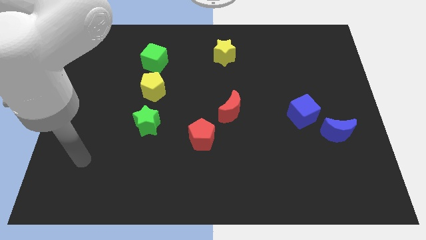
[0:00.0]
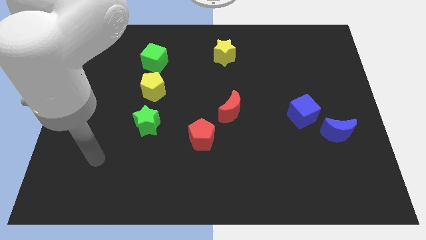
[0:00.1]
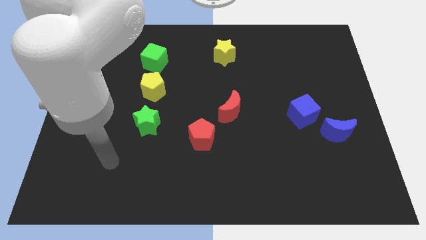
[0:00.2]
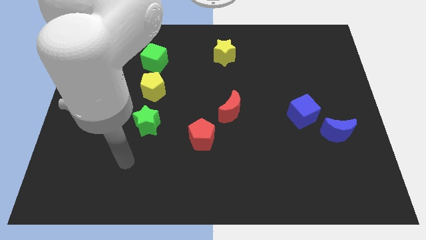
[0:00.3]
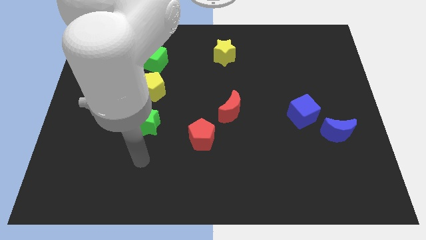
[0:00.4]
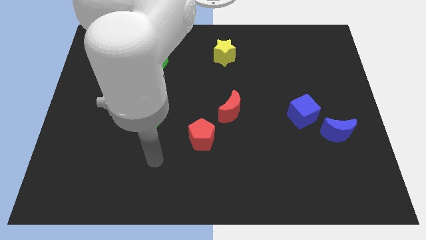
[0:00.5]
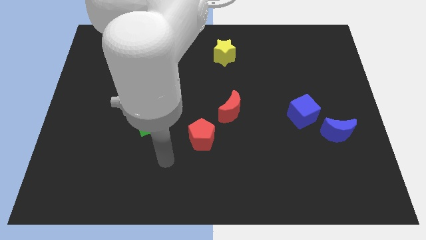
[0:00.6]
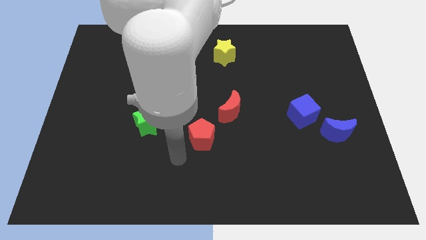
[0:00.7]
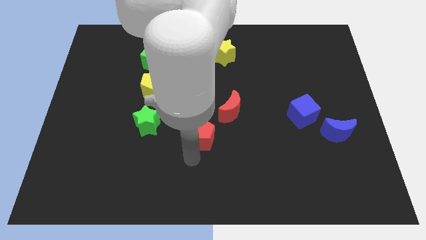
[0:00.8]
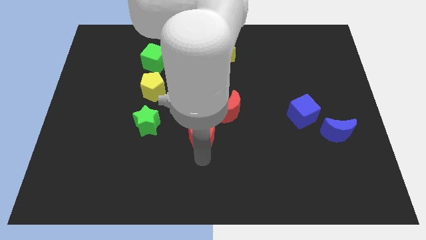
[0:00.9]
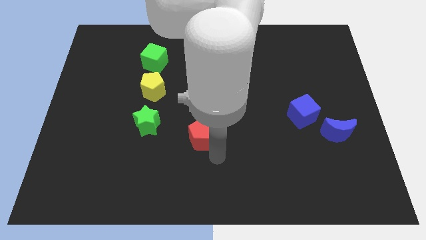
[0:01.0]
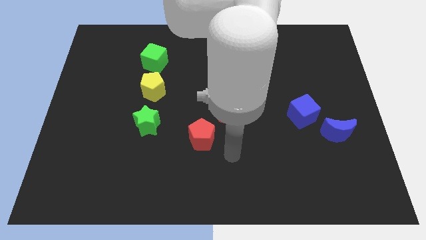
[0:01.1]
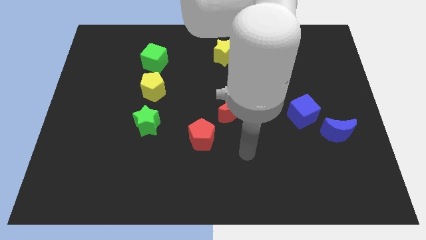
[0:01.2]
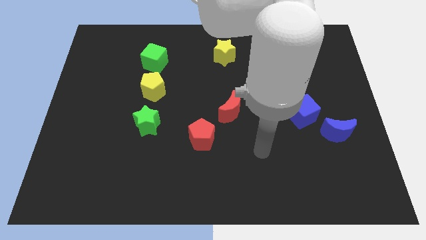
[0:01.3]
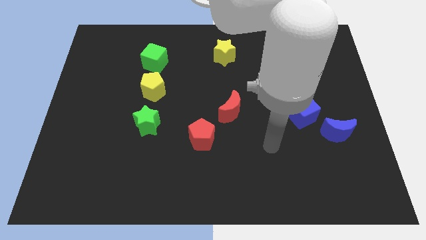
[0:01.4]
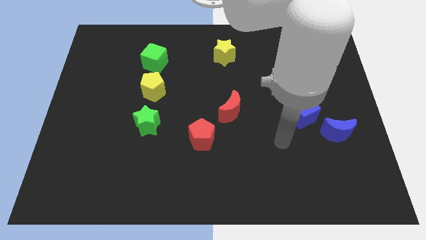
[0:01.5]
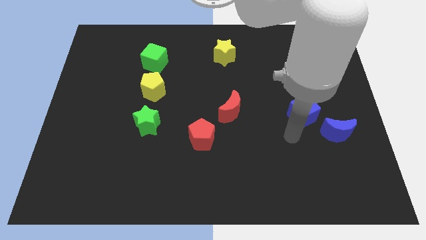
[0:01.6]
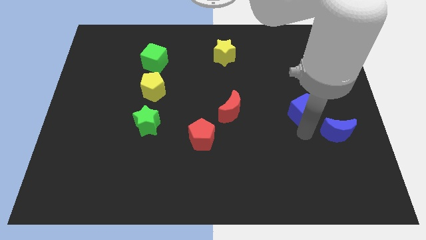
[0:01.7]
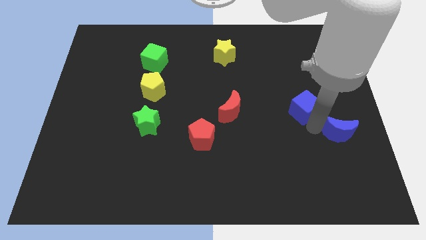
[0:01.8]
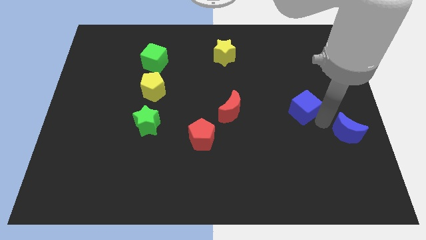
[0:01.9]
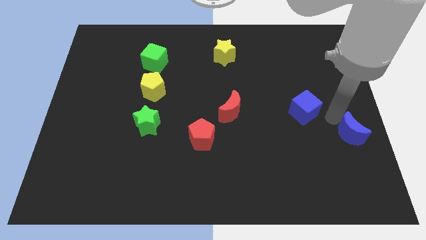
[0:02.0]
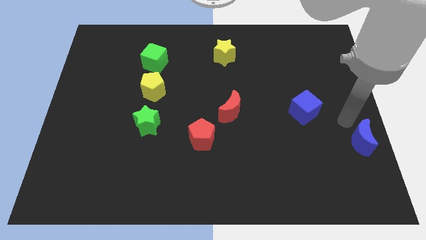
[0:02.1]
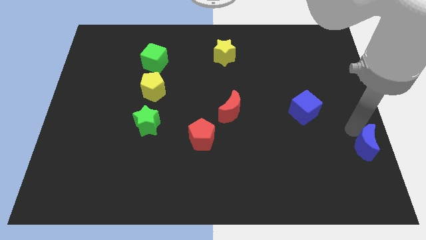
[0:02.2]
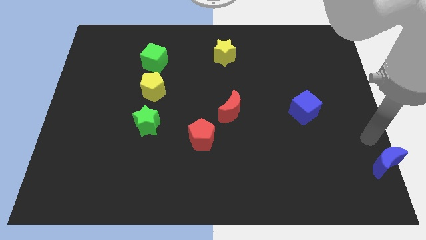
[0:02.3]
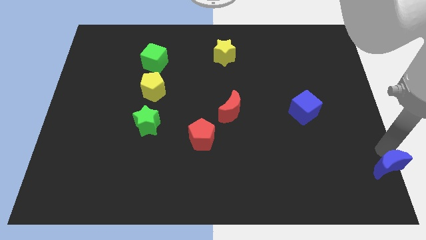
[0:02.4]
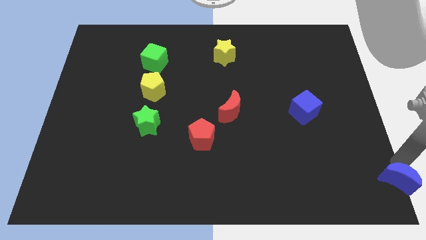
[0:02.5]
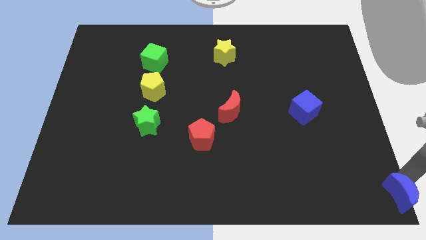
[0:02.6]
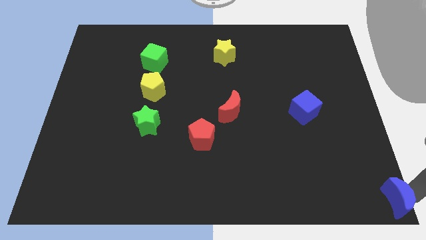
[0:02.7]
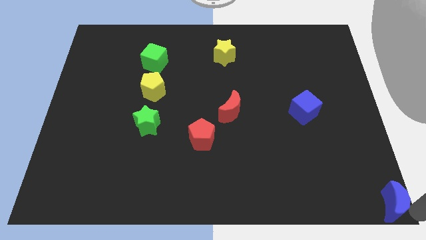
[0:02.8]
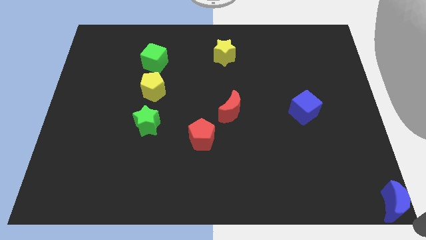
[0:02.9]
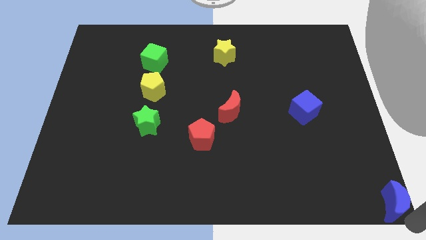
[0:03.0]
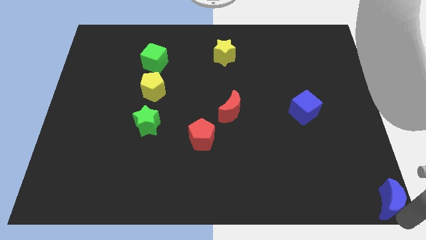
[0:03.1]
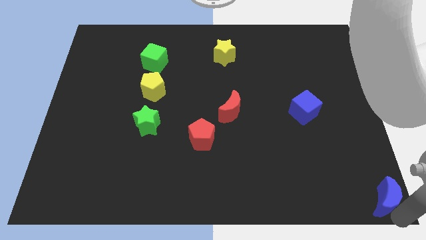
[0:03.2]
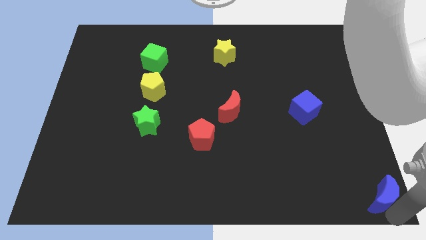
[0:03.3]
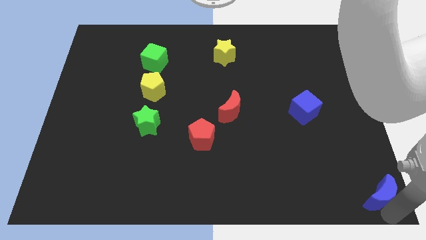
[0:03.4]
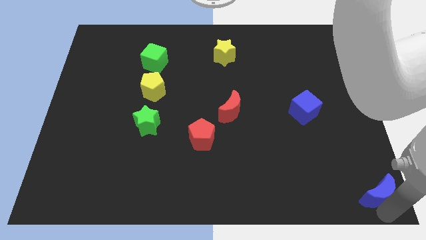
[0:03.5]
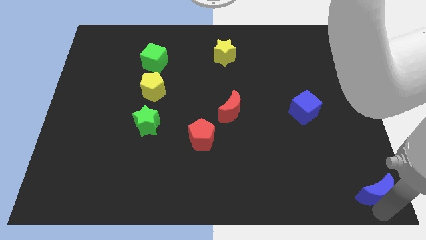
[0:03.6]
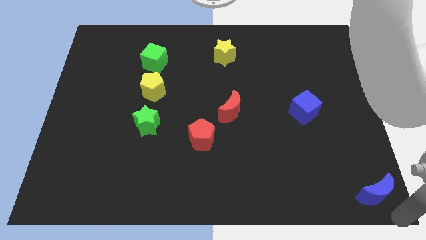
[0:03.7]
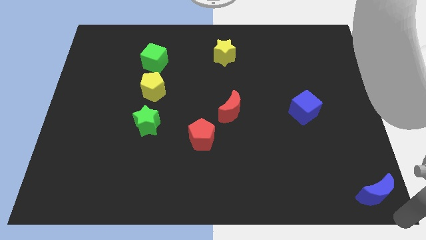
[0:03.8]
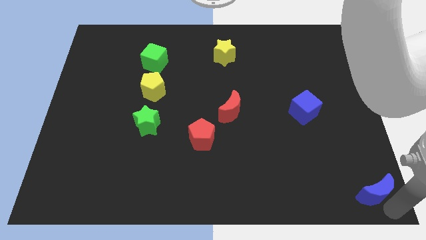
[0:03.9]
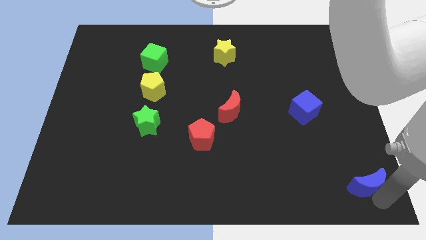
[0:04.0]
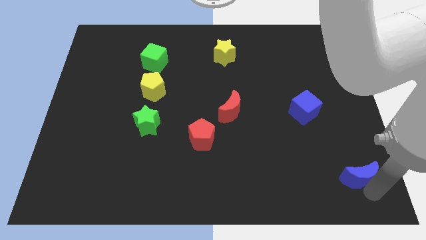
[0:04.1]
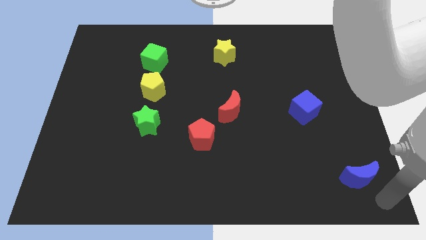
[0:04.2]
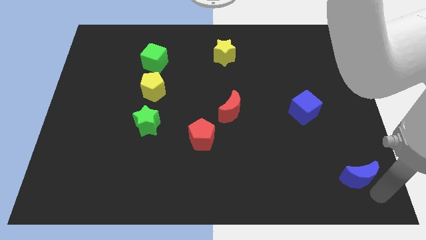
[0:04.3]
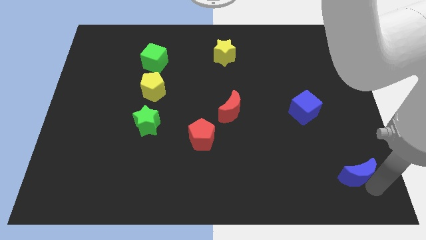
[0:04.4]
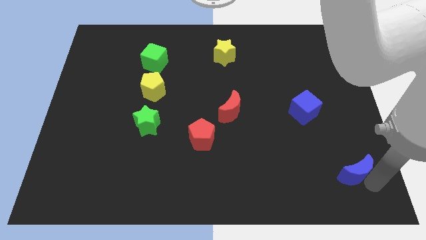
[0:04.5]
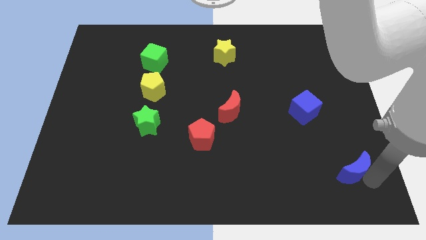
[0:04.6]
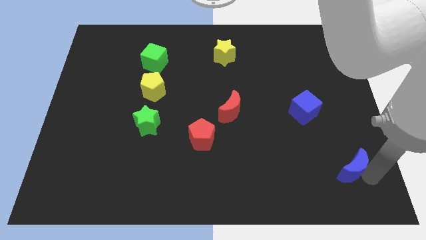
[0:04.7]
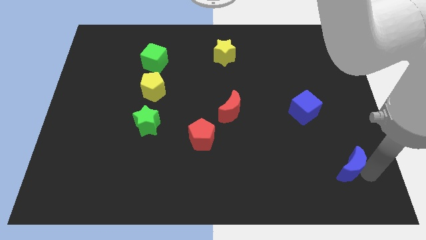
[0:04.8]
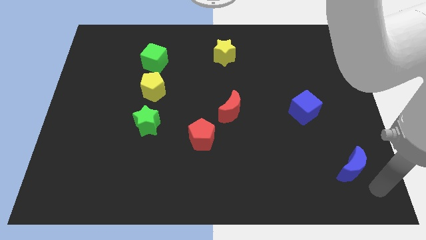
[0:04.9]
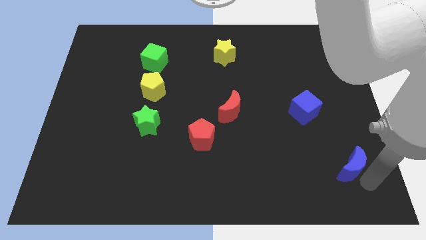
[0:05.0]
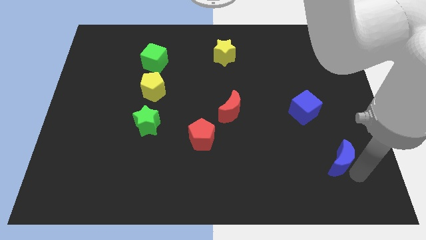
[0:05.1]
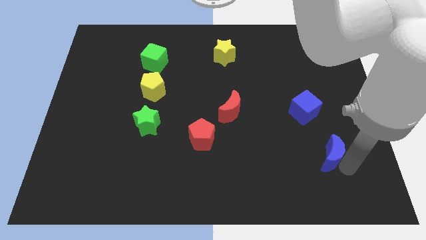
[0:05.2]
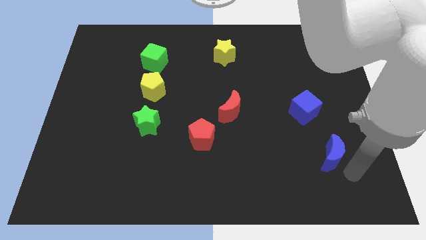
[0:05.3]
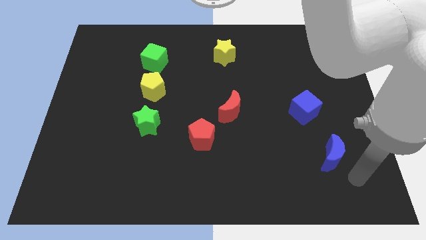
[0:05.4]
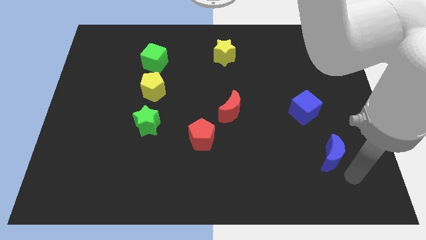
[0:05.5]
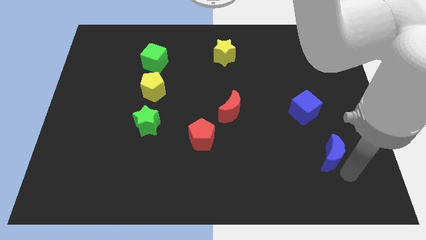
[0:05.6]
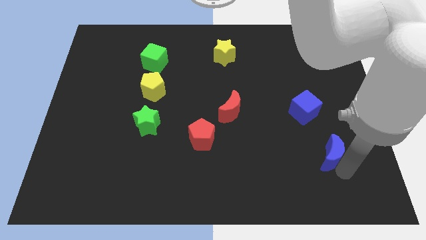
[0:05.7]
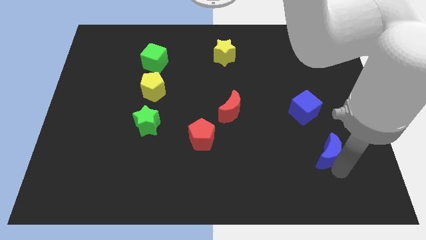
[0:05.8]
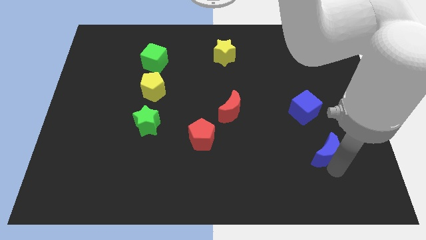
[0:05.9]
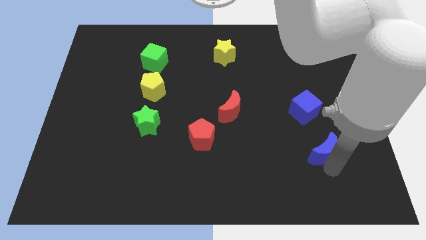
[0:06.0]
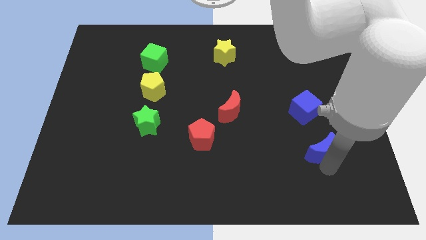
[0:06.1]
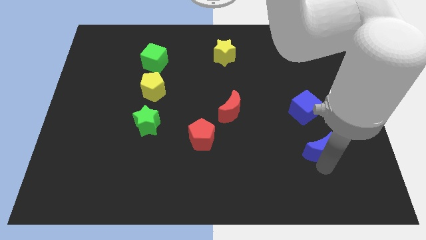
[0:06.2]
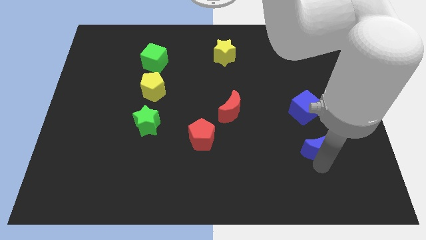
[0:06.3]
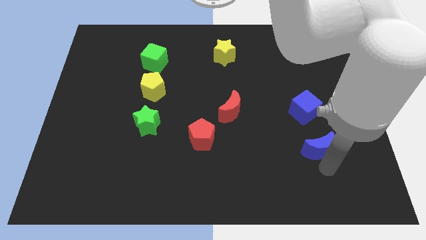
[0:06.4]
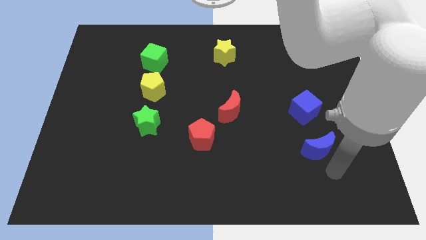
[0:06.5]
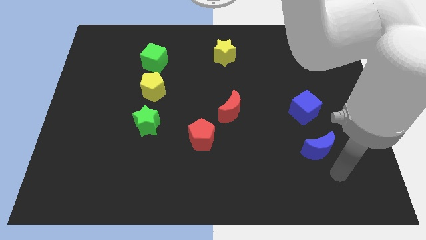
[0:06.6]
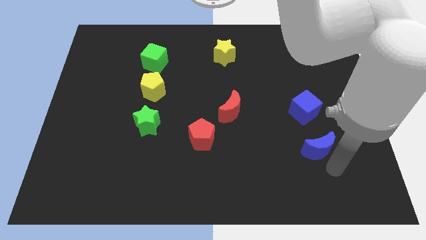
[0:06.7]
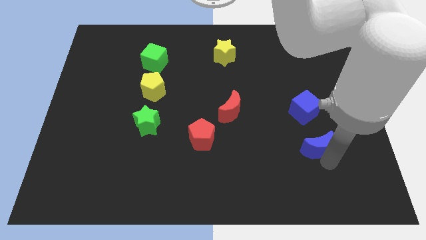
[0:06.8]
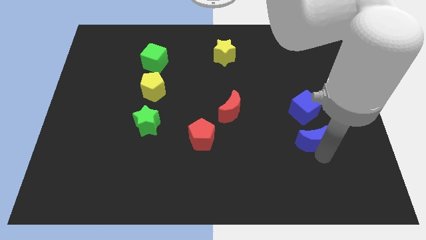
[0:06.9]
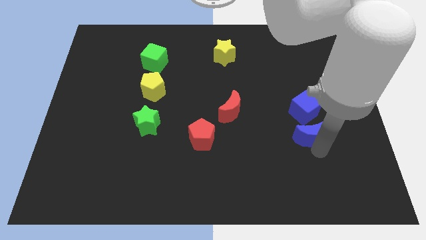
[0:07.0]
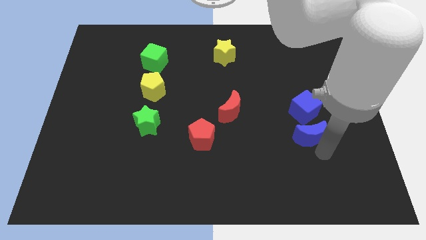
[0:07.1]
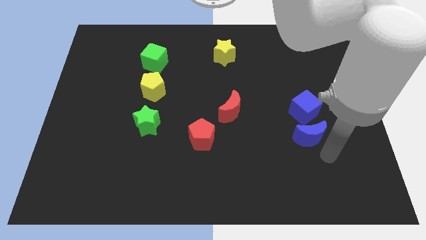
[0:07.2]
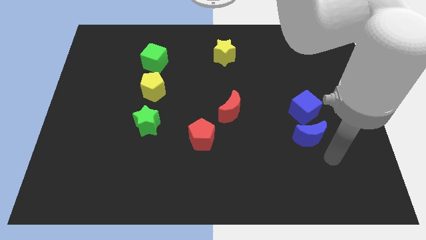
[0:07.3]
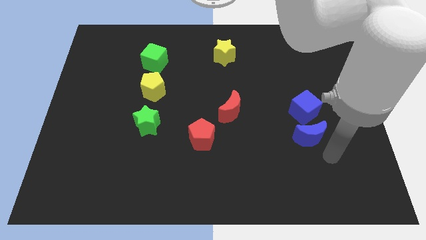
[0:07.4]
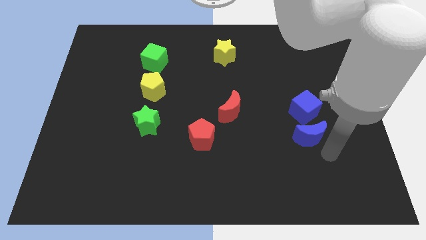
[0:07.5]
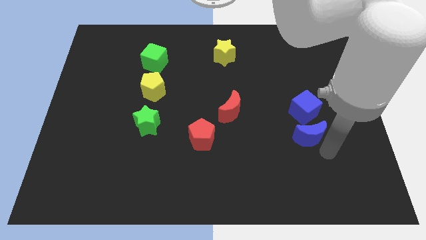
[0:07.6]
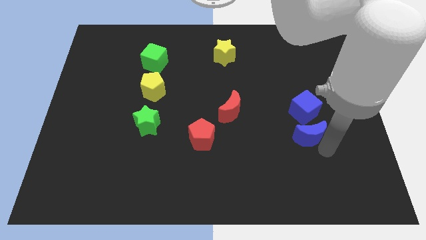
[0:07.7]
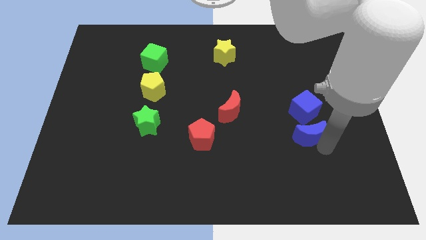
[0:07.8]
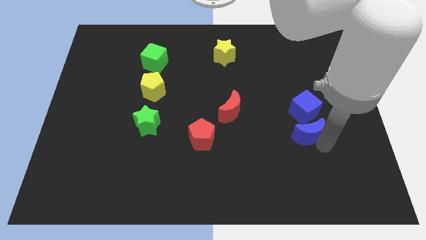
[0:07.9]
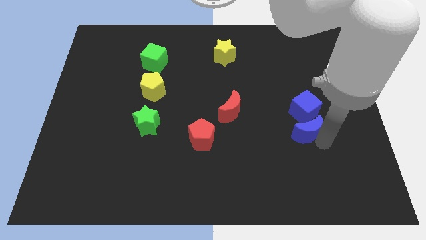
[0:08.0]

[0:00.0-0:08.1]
slightly slide the blue moon to the left

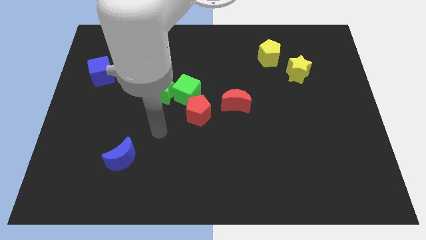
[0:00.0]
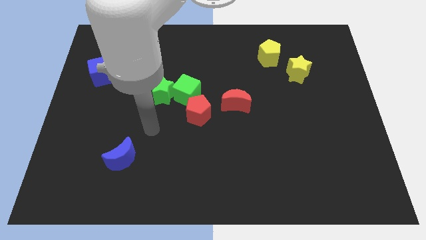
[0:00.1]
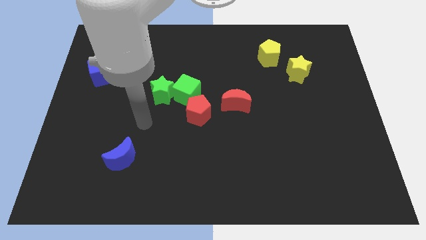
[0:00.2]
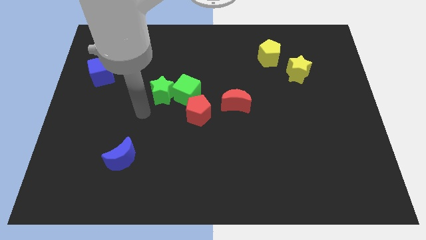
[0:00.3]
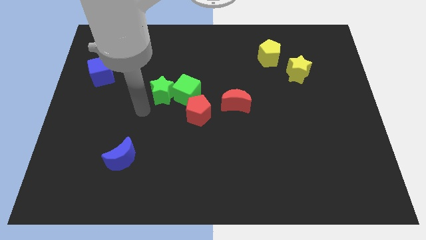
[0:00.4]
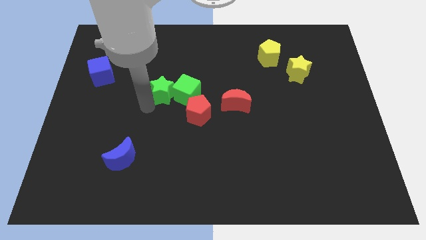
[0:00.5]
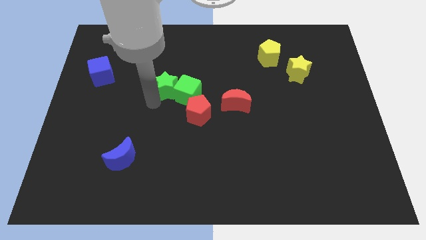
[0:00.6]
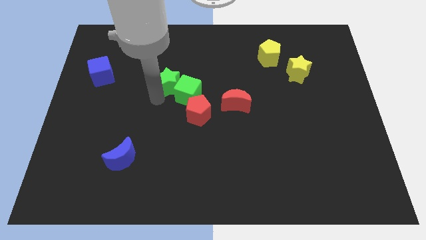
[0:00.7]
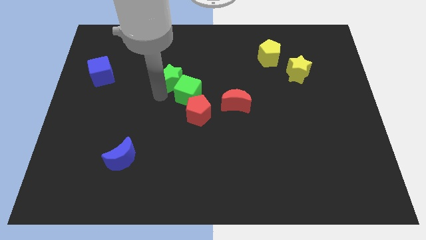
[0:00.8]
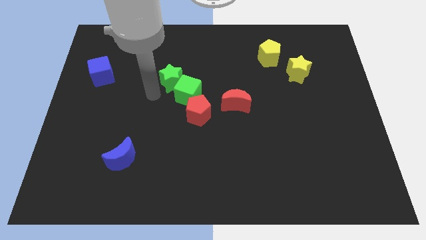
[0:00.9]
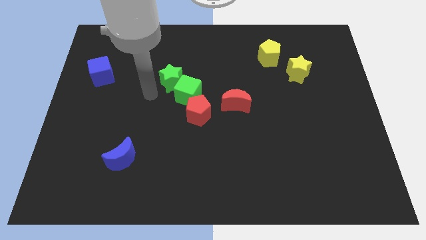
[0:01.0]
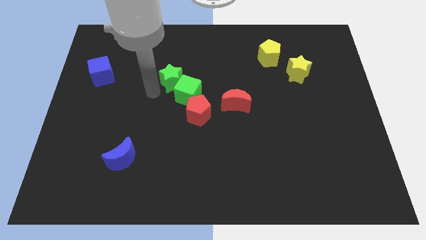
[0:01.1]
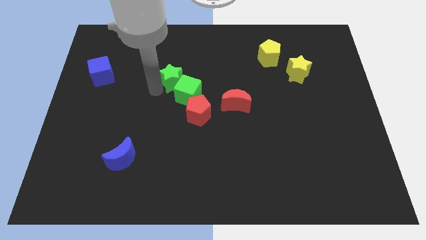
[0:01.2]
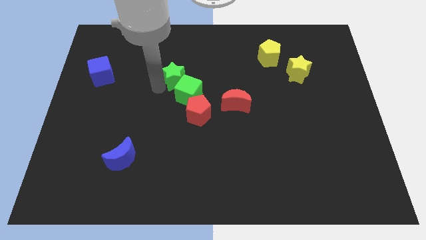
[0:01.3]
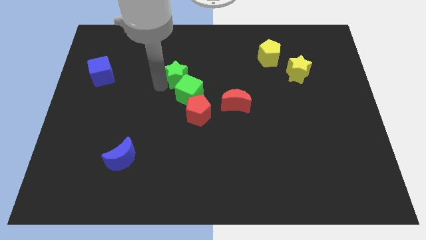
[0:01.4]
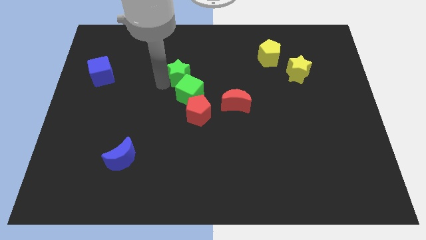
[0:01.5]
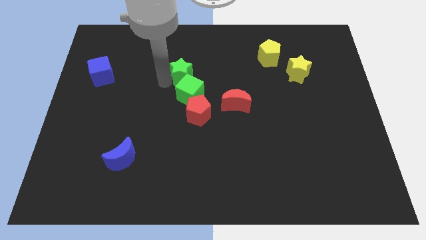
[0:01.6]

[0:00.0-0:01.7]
slightly push the green star diagonally upwards and right
